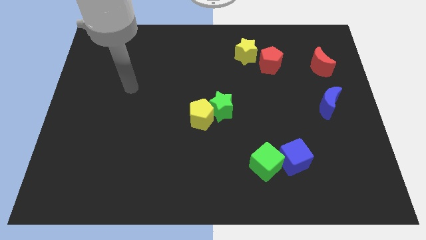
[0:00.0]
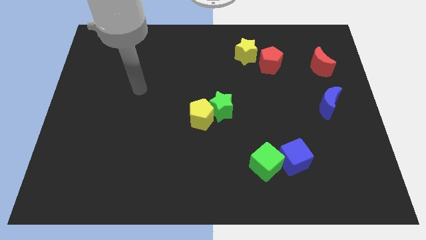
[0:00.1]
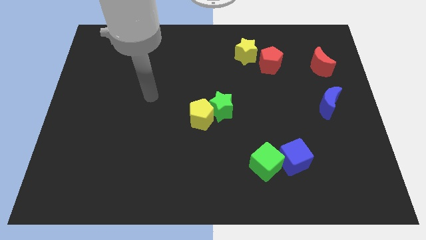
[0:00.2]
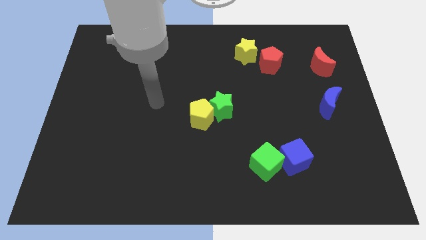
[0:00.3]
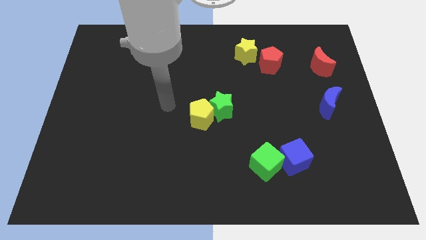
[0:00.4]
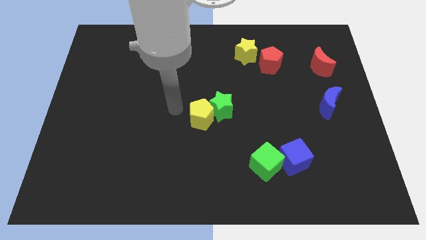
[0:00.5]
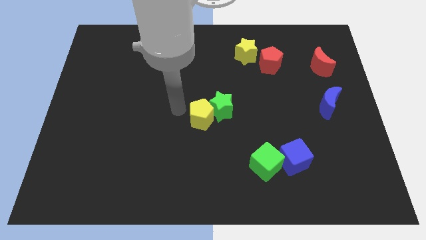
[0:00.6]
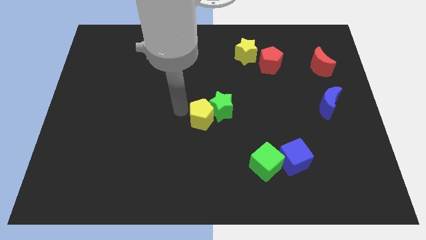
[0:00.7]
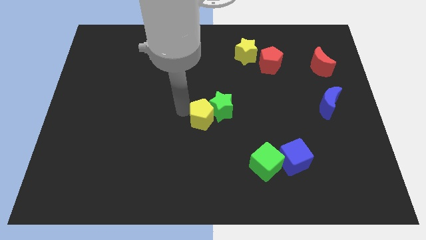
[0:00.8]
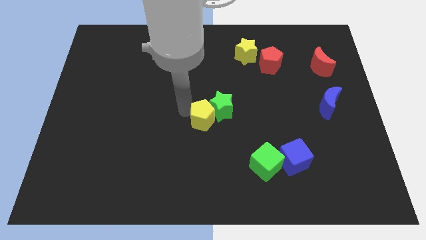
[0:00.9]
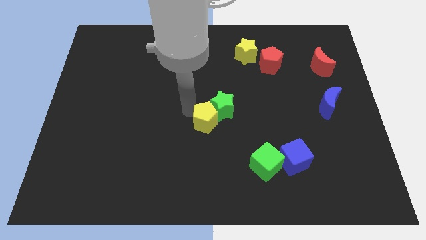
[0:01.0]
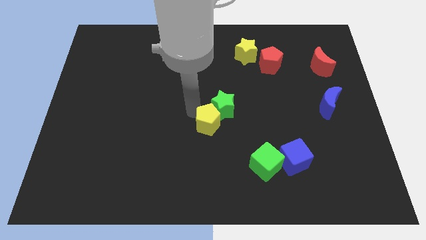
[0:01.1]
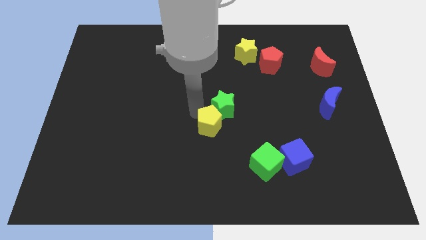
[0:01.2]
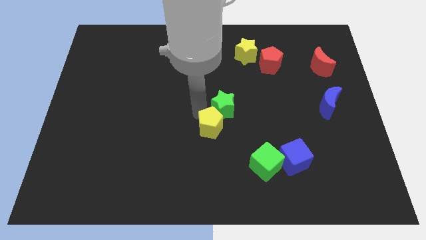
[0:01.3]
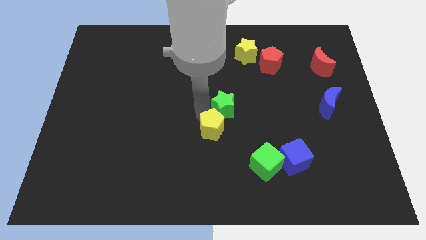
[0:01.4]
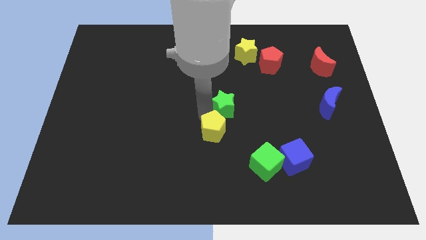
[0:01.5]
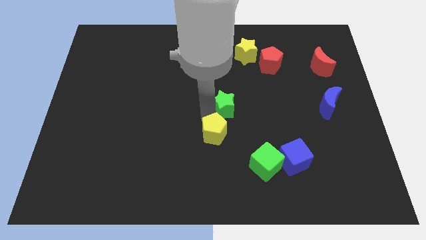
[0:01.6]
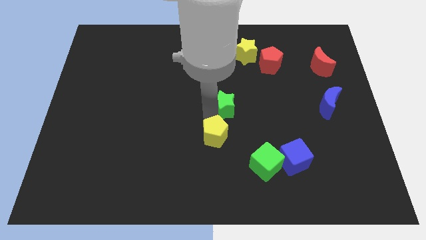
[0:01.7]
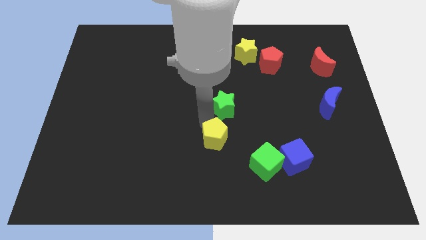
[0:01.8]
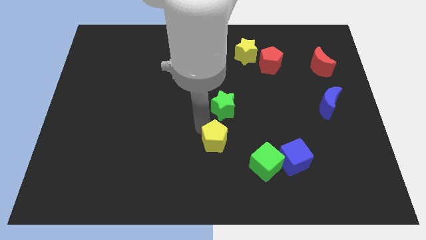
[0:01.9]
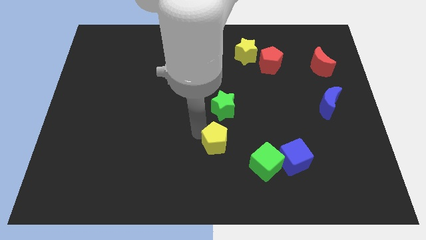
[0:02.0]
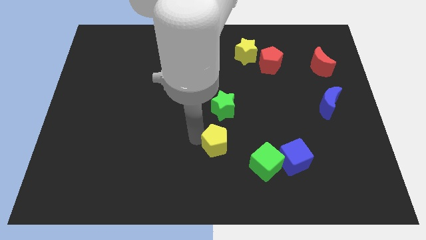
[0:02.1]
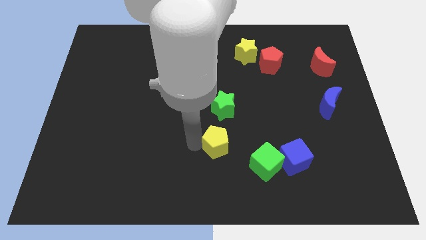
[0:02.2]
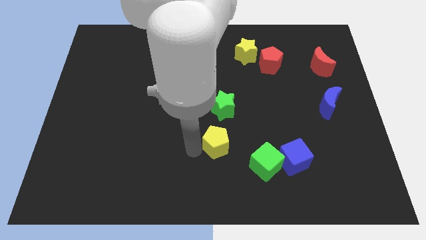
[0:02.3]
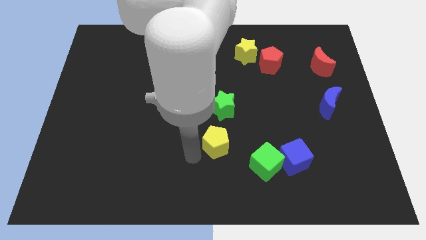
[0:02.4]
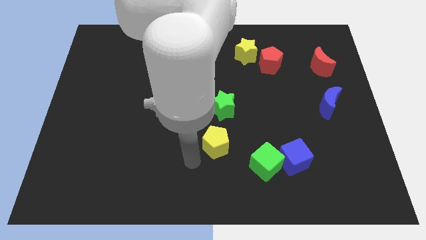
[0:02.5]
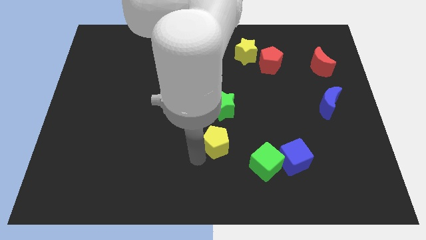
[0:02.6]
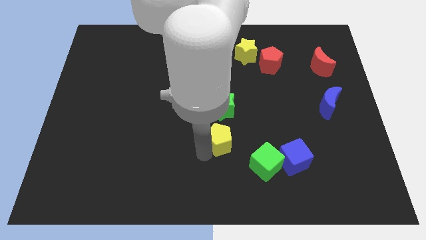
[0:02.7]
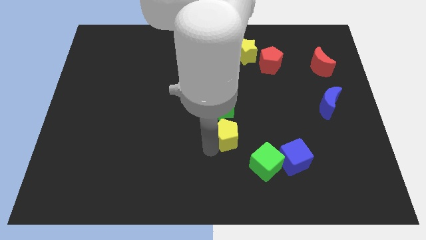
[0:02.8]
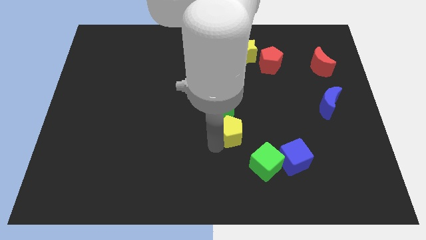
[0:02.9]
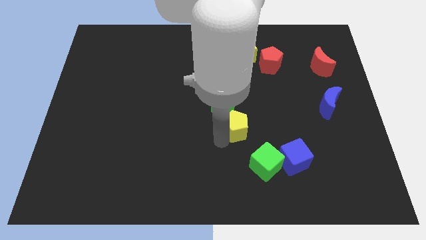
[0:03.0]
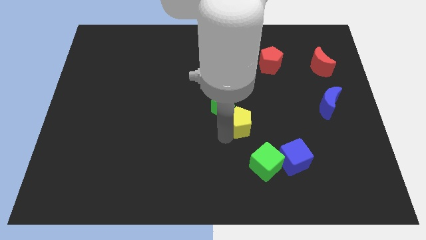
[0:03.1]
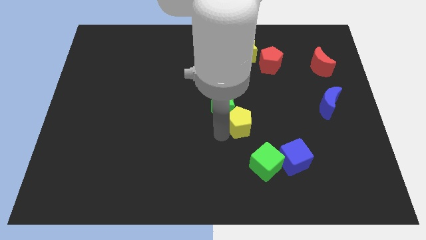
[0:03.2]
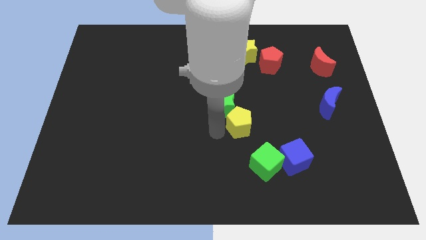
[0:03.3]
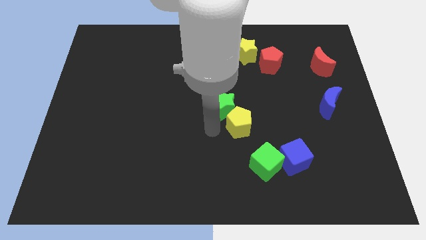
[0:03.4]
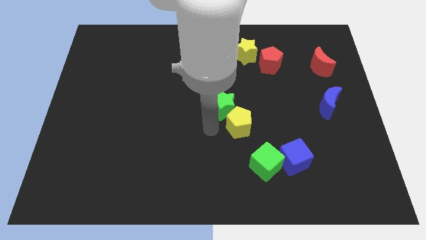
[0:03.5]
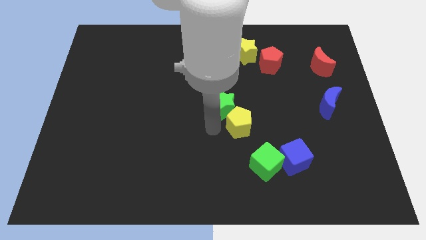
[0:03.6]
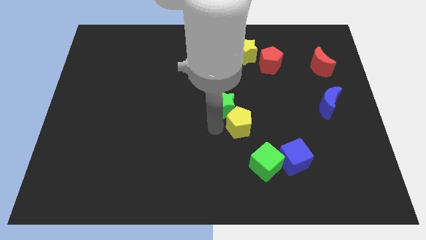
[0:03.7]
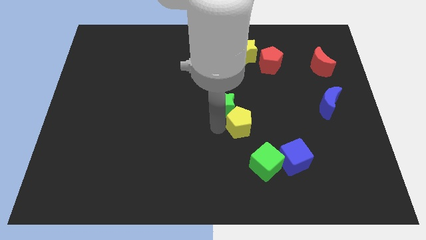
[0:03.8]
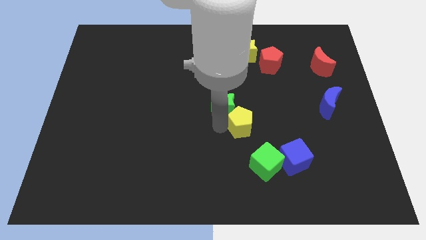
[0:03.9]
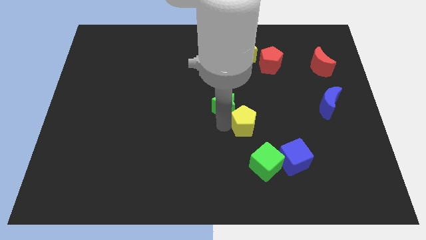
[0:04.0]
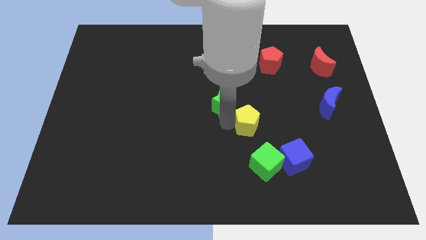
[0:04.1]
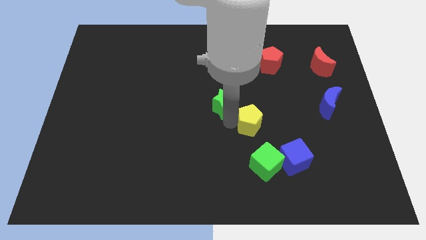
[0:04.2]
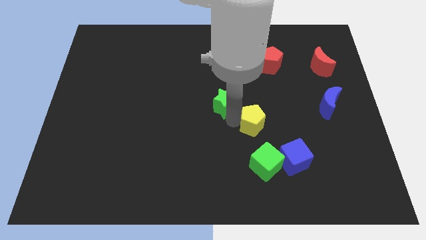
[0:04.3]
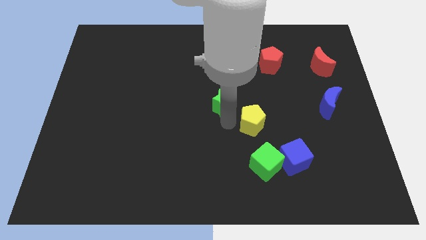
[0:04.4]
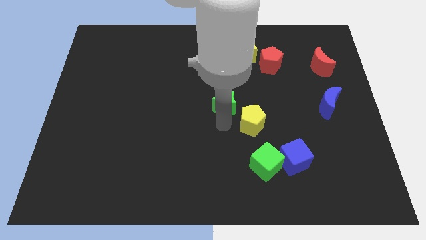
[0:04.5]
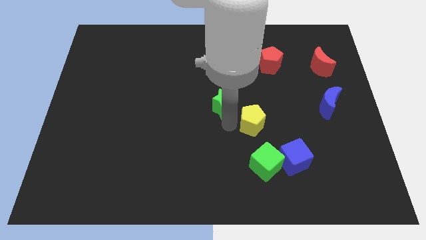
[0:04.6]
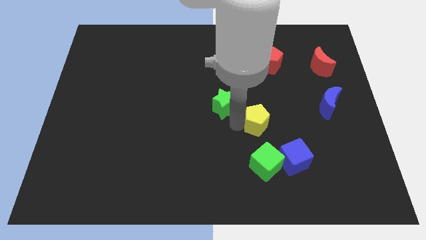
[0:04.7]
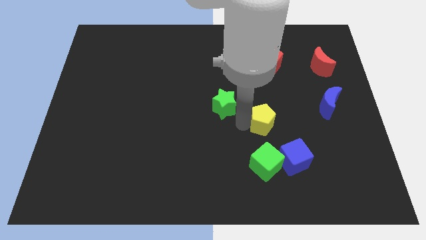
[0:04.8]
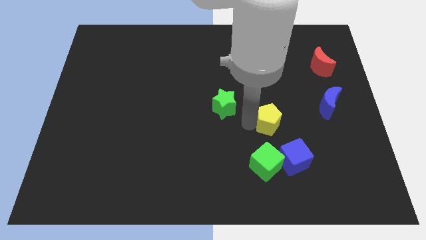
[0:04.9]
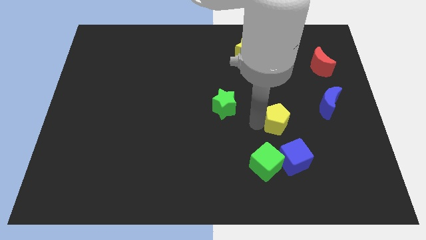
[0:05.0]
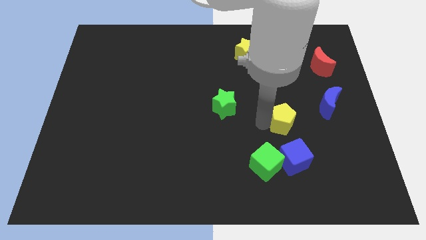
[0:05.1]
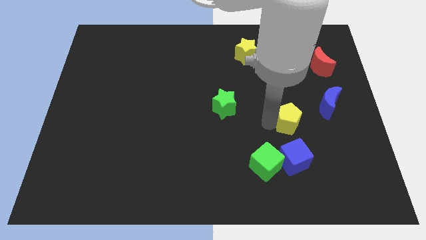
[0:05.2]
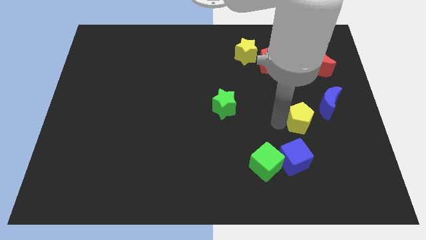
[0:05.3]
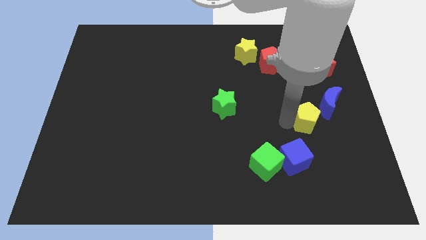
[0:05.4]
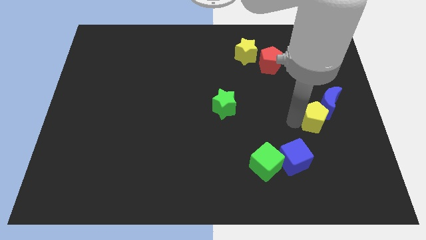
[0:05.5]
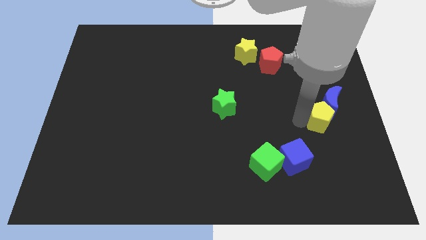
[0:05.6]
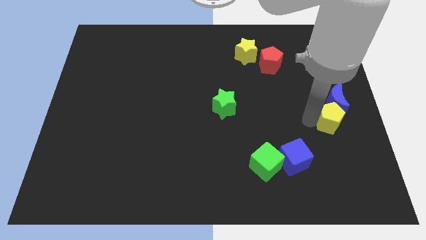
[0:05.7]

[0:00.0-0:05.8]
slide the yellow pentagon to the right side
